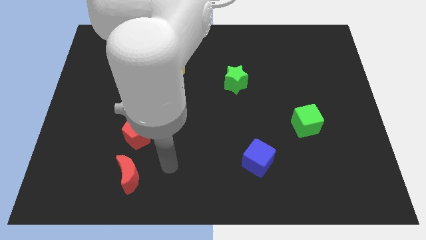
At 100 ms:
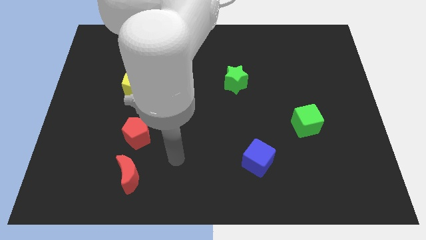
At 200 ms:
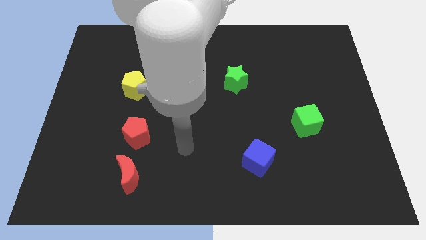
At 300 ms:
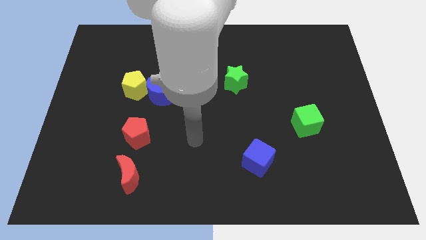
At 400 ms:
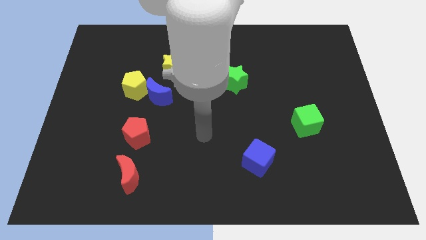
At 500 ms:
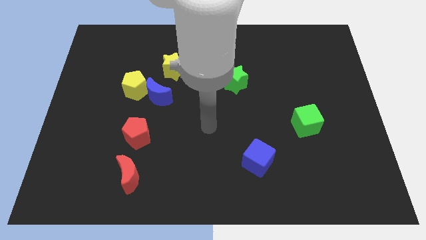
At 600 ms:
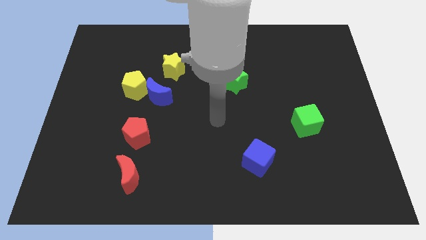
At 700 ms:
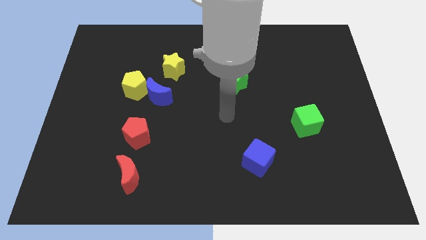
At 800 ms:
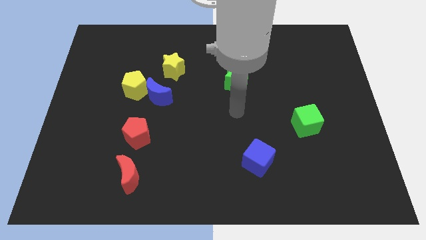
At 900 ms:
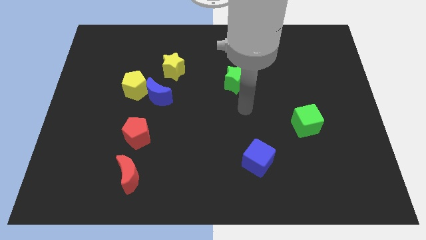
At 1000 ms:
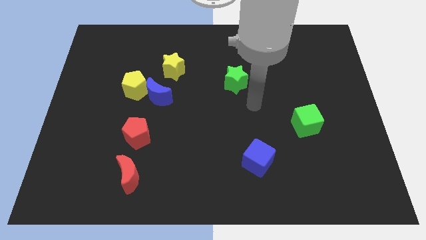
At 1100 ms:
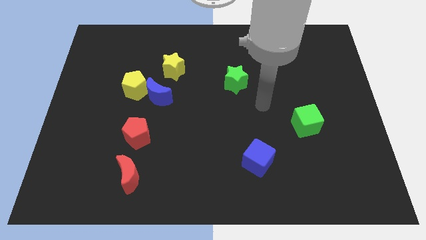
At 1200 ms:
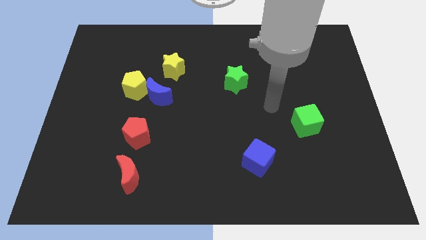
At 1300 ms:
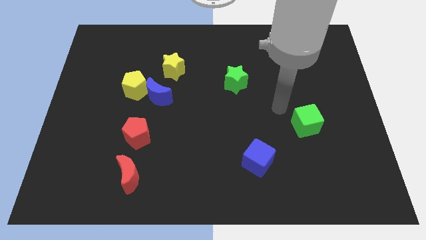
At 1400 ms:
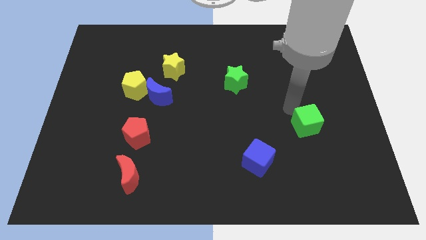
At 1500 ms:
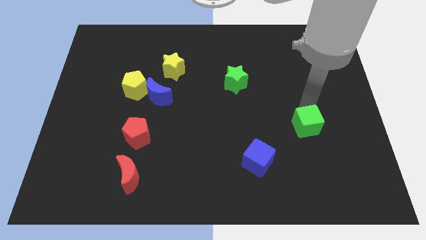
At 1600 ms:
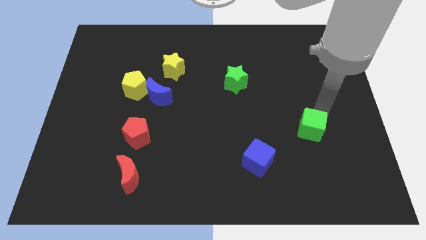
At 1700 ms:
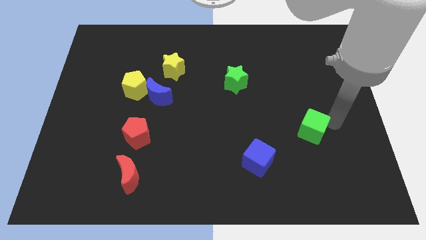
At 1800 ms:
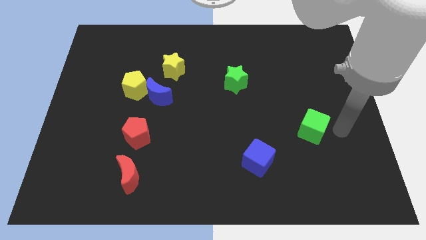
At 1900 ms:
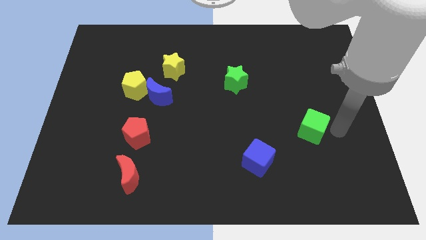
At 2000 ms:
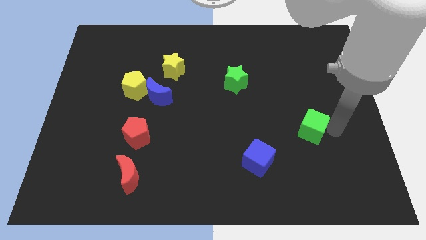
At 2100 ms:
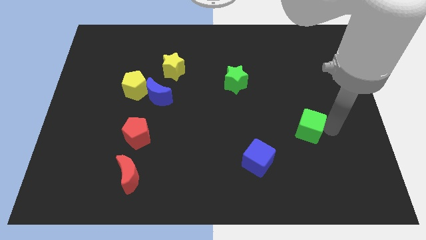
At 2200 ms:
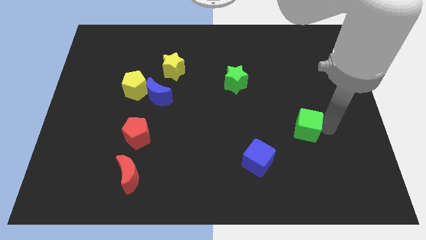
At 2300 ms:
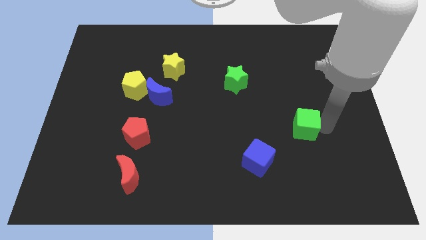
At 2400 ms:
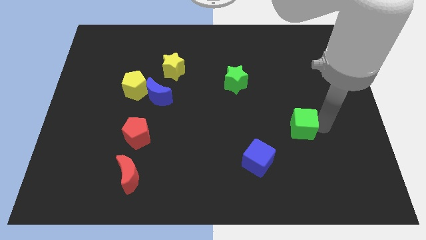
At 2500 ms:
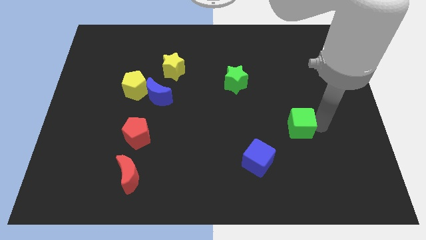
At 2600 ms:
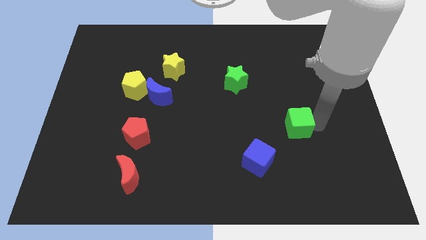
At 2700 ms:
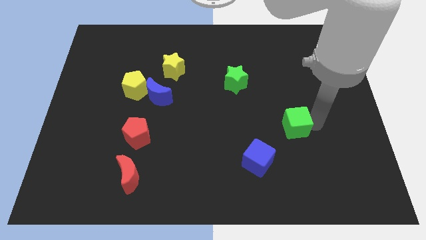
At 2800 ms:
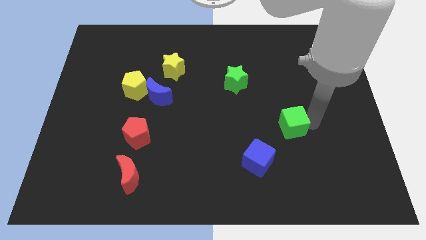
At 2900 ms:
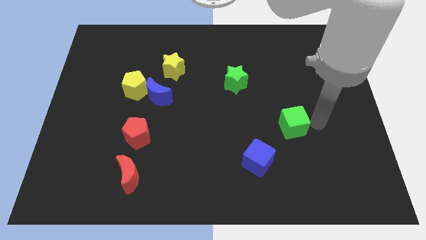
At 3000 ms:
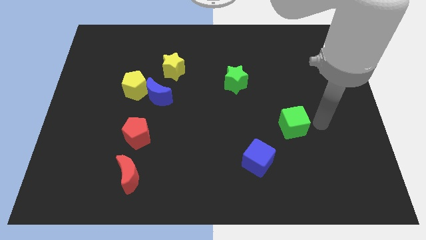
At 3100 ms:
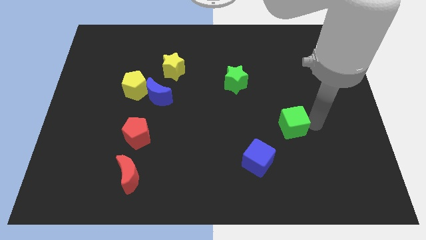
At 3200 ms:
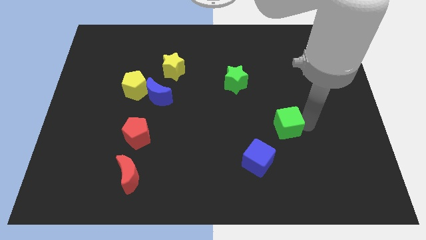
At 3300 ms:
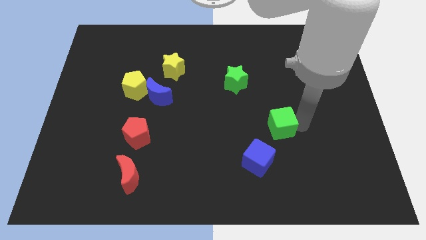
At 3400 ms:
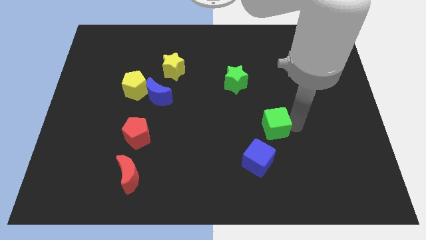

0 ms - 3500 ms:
slightly move the green cube to the left

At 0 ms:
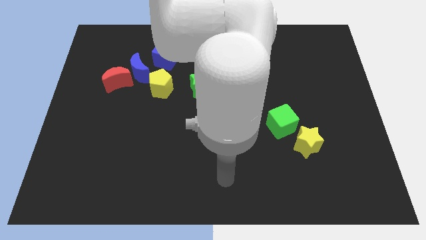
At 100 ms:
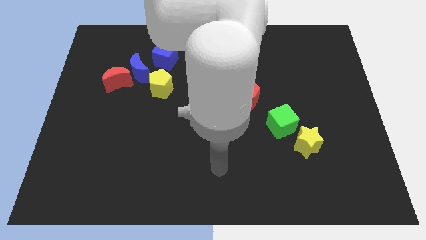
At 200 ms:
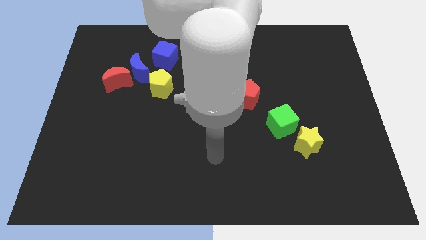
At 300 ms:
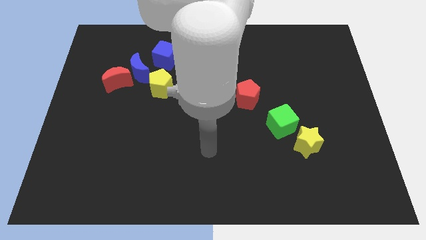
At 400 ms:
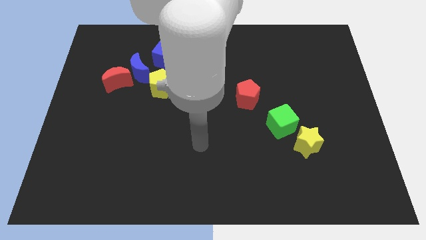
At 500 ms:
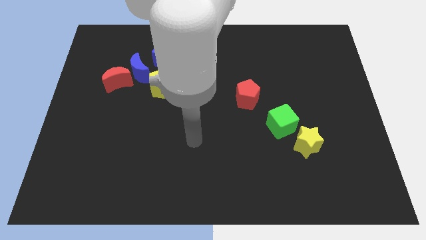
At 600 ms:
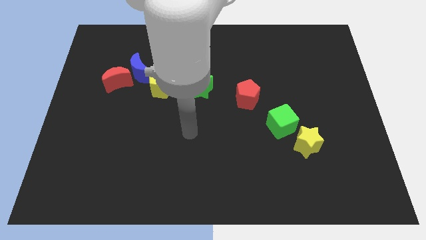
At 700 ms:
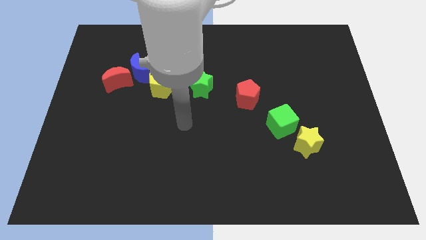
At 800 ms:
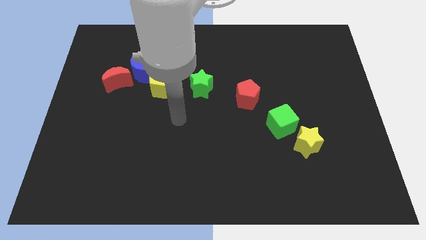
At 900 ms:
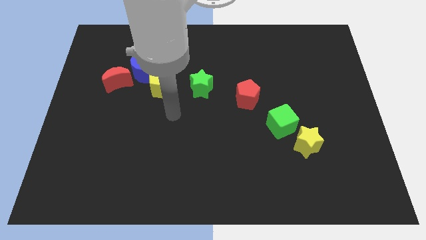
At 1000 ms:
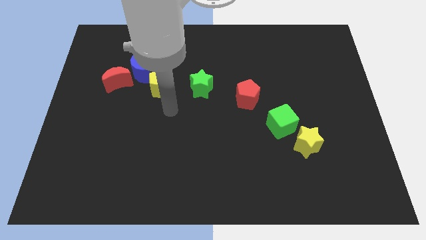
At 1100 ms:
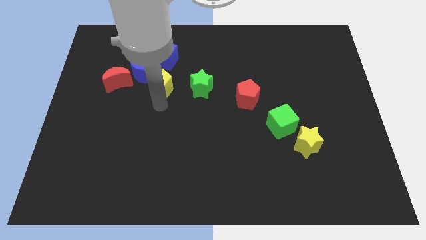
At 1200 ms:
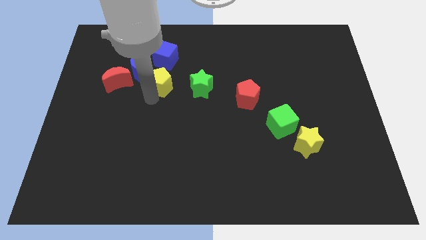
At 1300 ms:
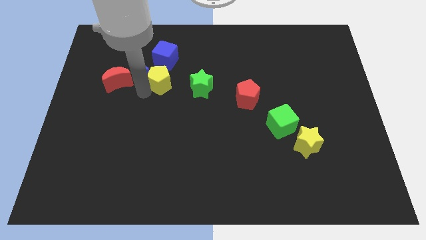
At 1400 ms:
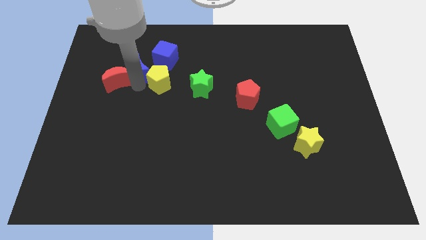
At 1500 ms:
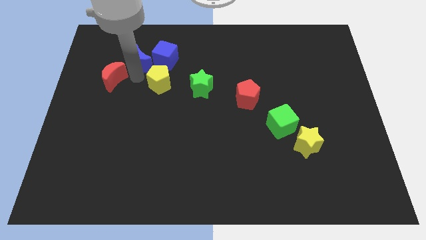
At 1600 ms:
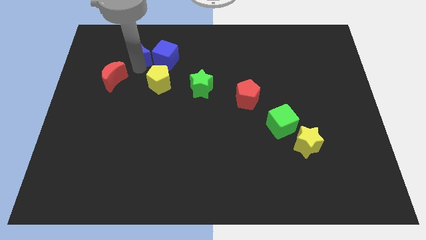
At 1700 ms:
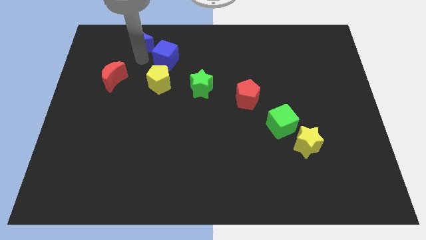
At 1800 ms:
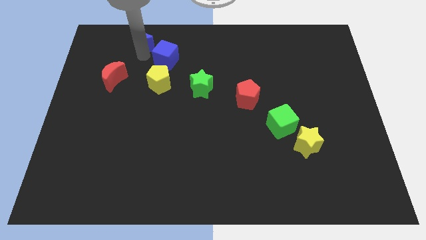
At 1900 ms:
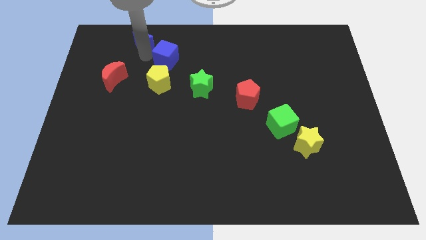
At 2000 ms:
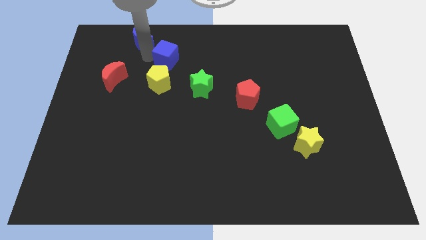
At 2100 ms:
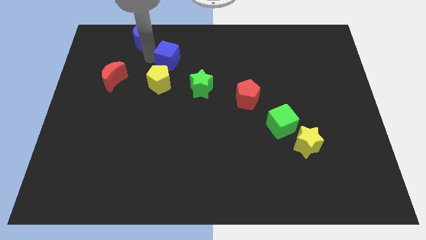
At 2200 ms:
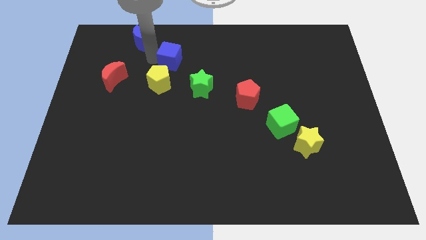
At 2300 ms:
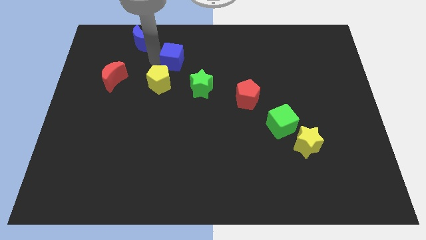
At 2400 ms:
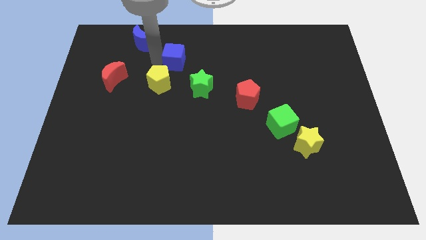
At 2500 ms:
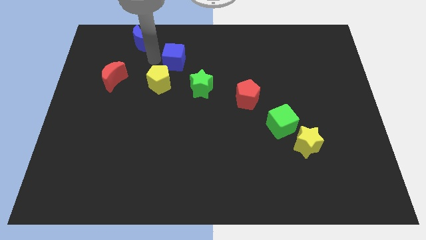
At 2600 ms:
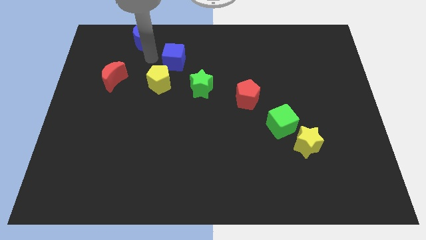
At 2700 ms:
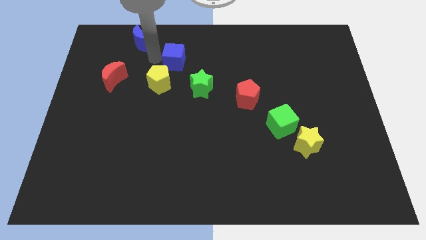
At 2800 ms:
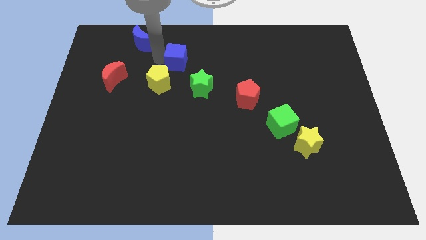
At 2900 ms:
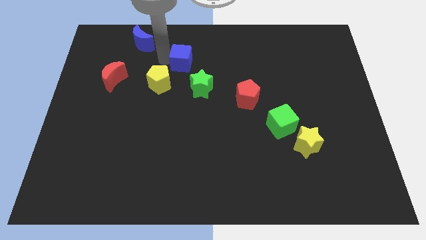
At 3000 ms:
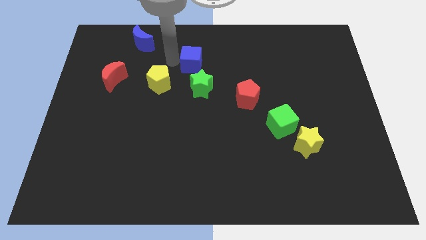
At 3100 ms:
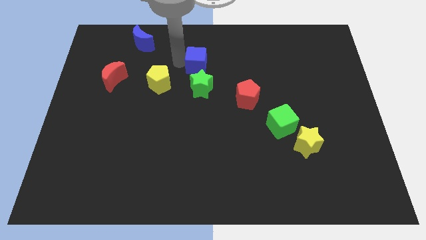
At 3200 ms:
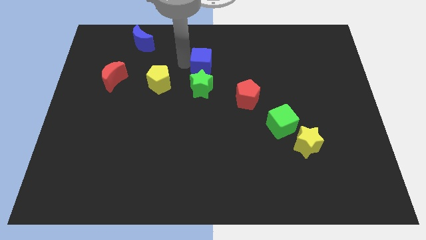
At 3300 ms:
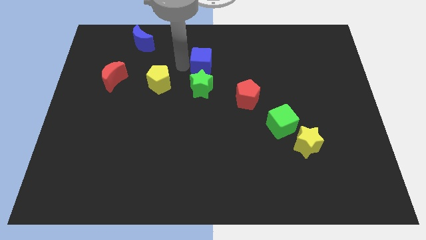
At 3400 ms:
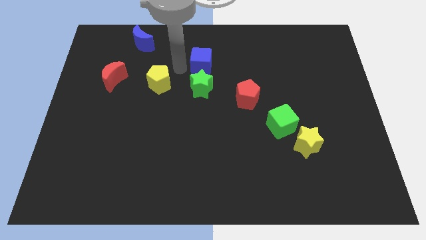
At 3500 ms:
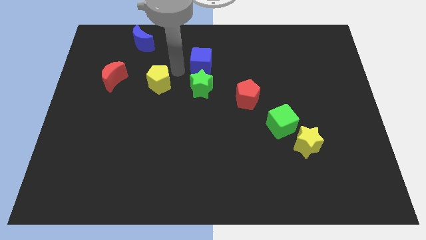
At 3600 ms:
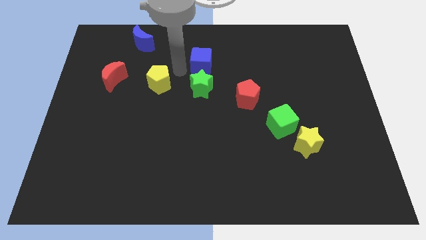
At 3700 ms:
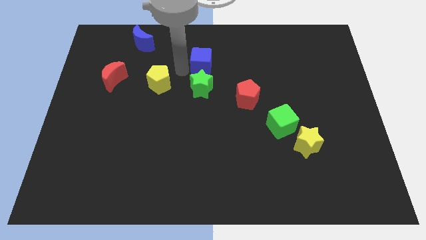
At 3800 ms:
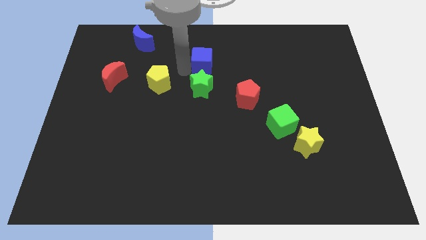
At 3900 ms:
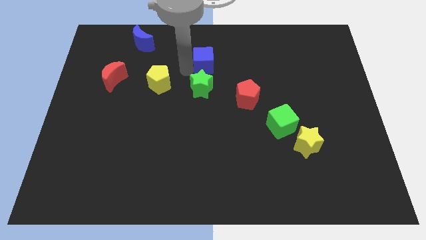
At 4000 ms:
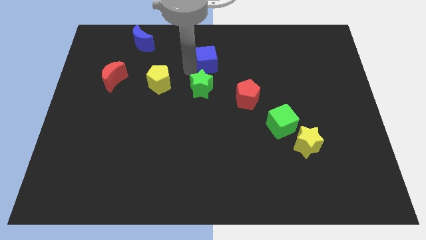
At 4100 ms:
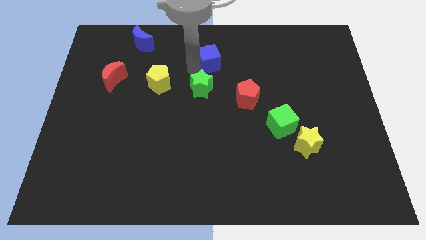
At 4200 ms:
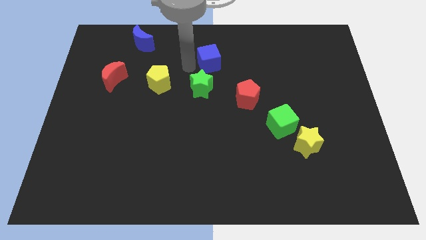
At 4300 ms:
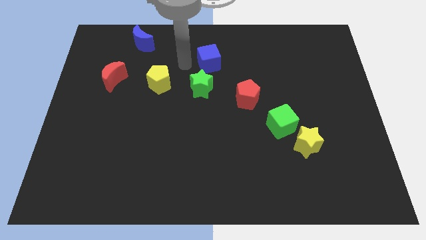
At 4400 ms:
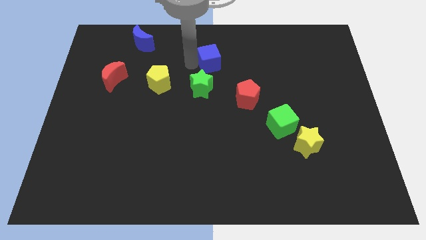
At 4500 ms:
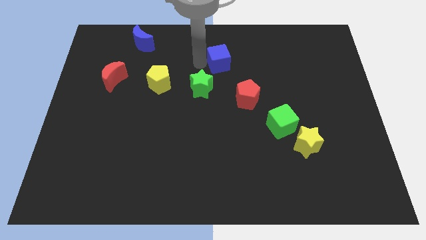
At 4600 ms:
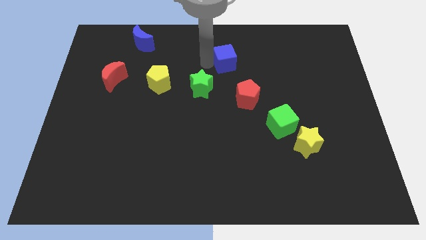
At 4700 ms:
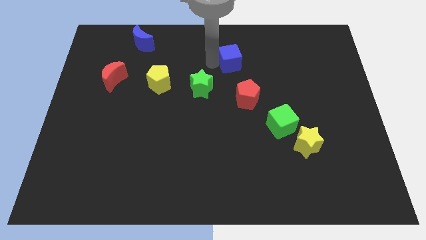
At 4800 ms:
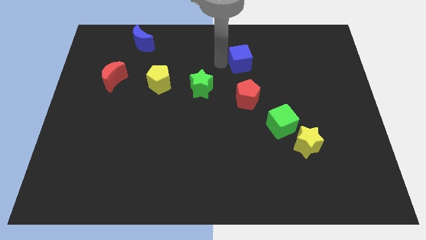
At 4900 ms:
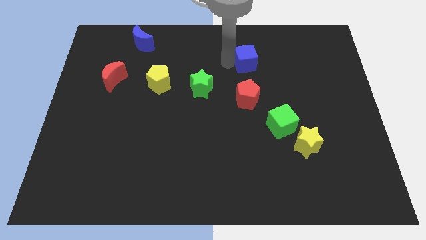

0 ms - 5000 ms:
push the blue cube to the right
